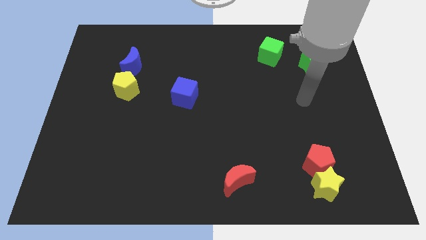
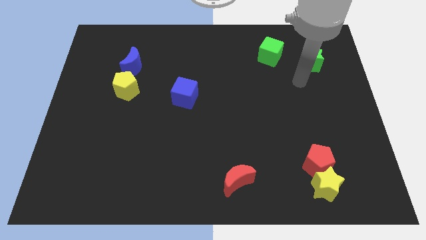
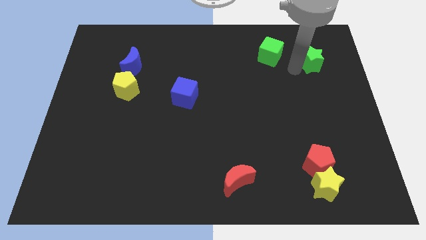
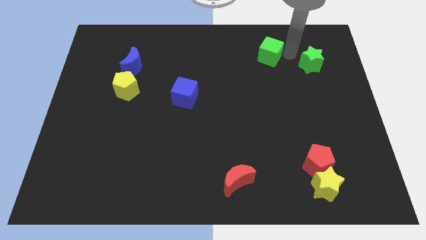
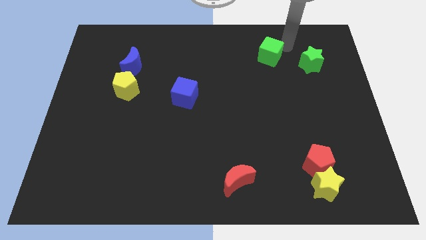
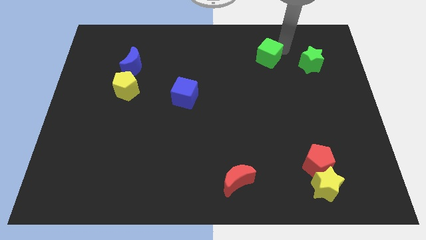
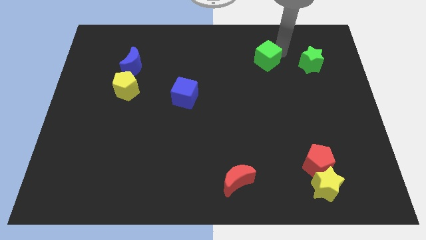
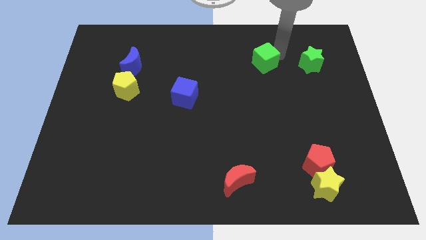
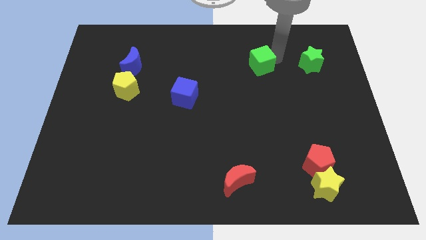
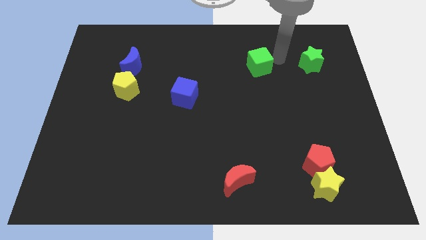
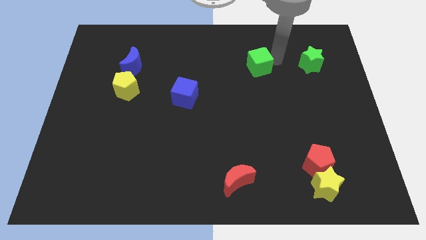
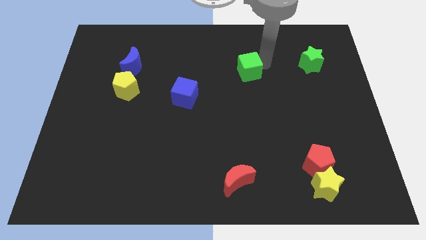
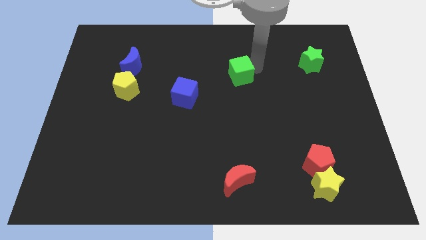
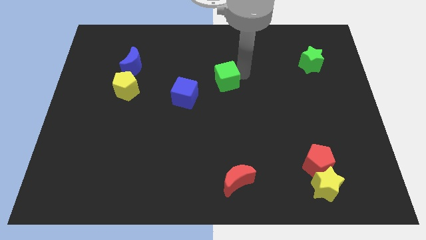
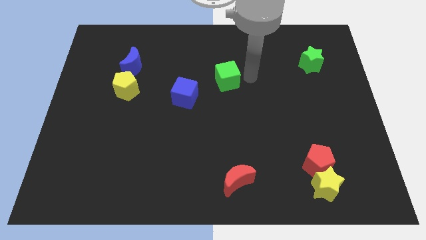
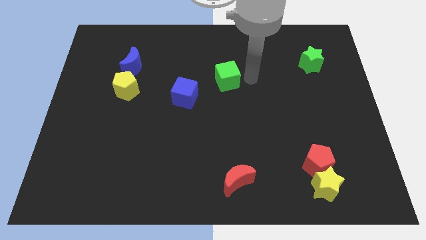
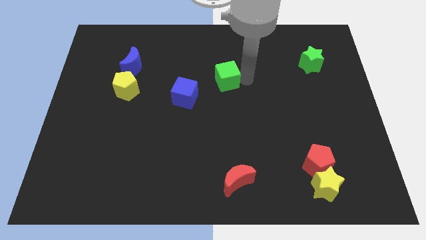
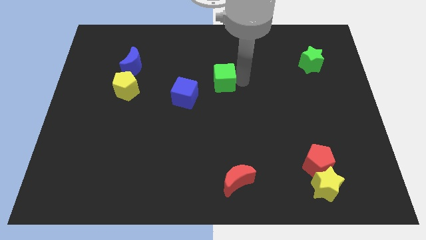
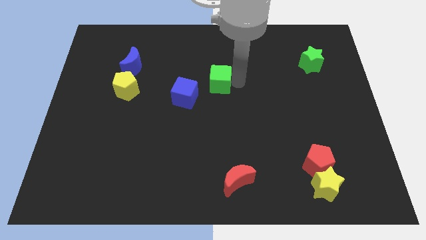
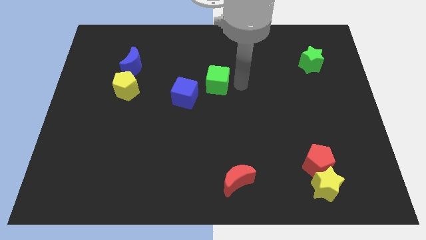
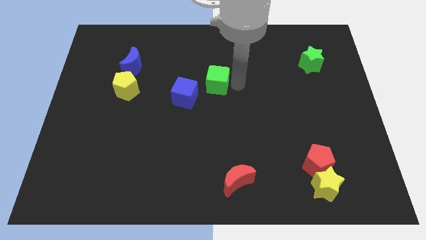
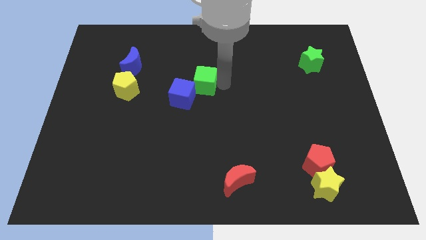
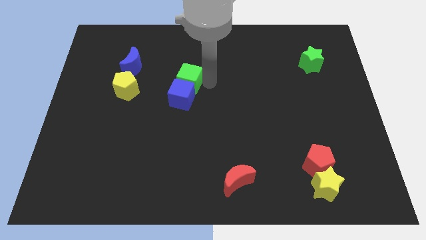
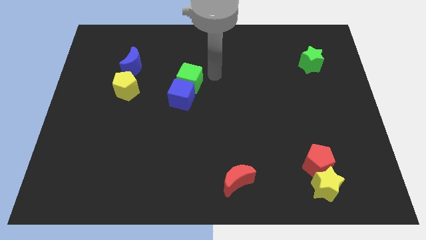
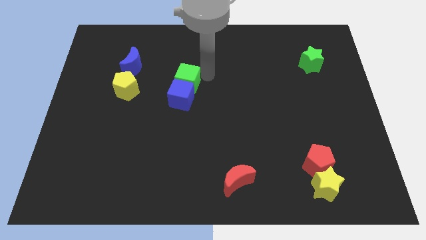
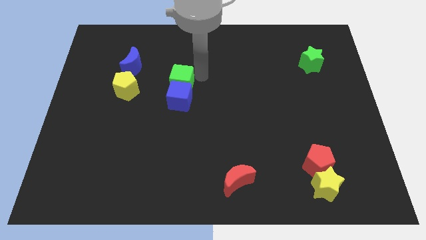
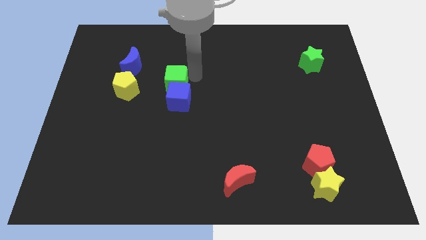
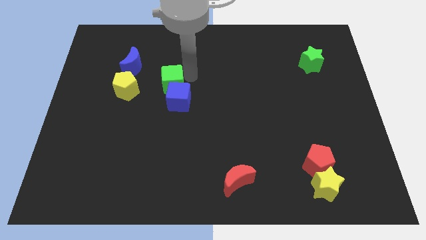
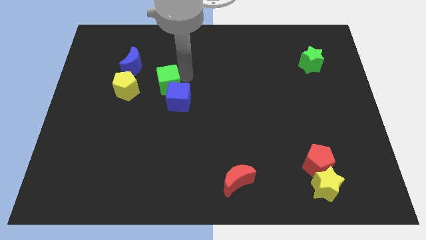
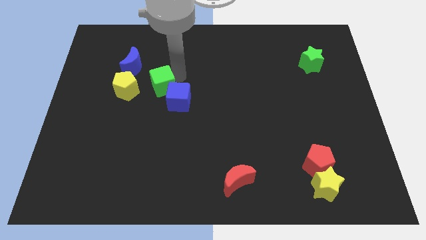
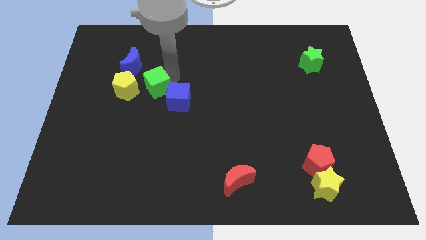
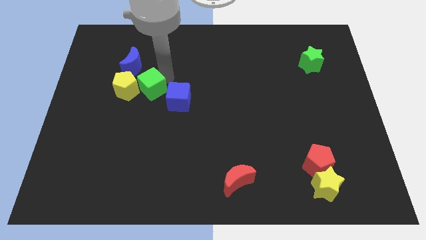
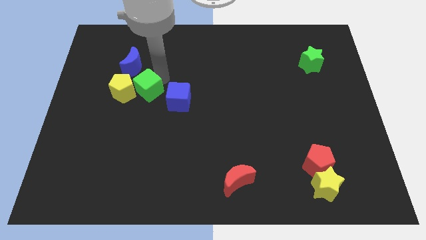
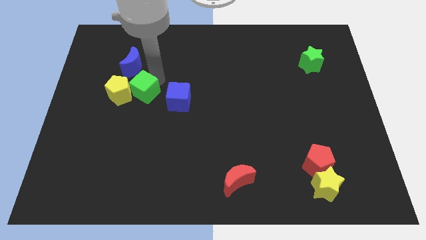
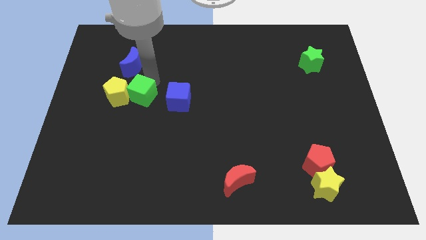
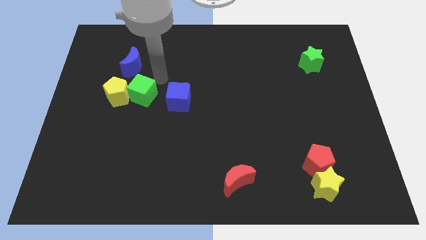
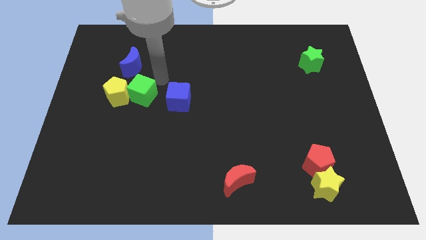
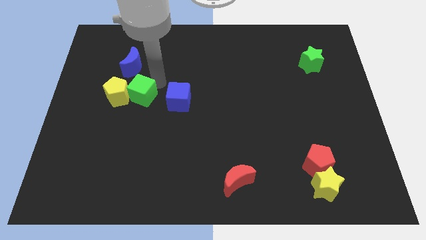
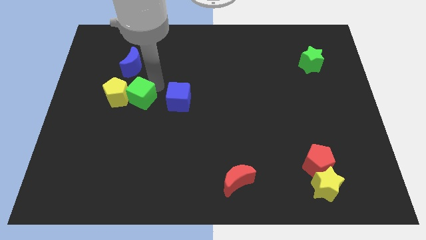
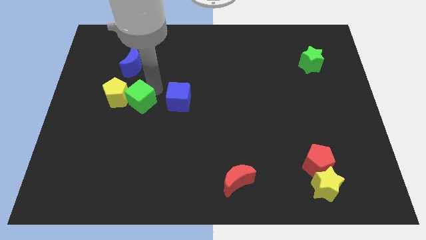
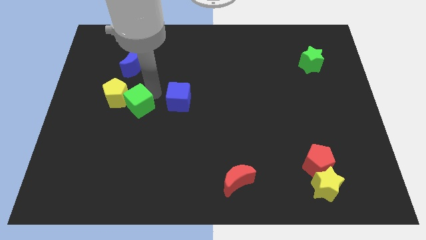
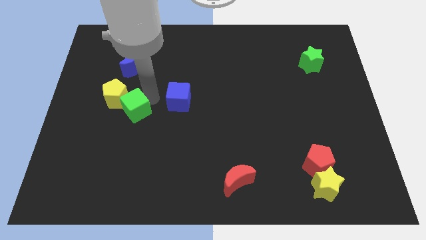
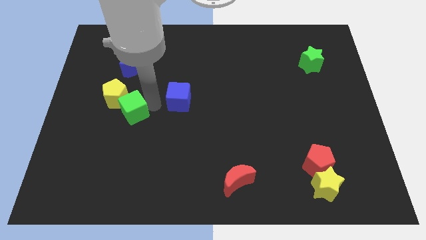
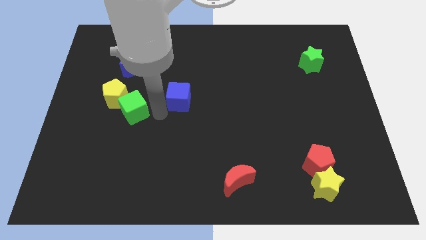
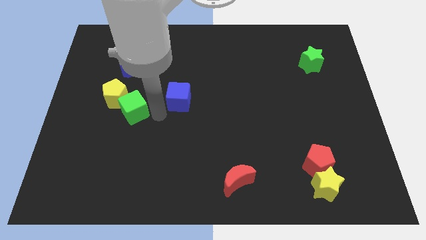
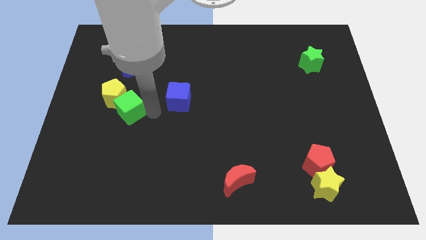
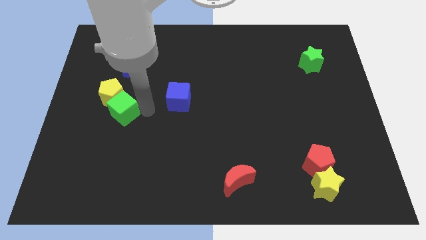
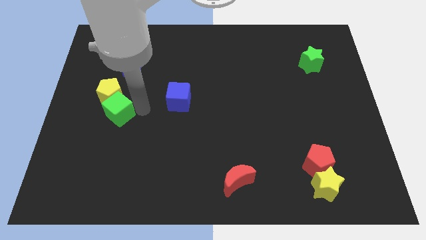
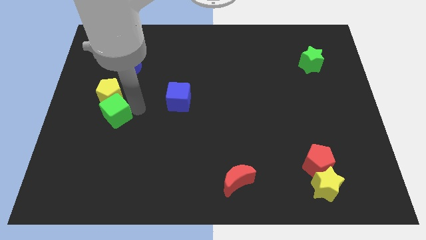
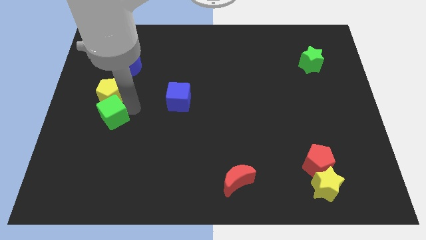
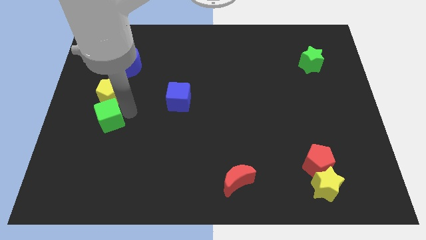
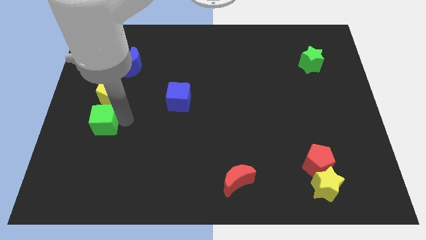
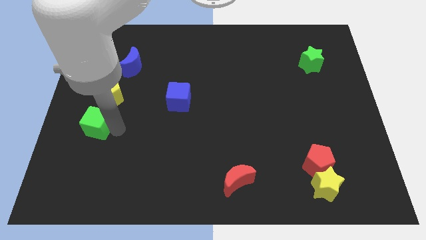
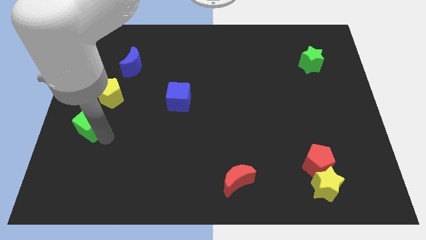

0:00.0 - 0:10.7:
move the green cube to the left side

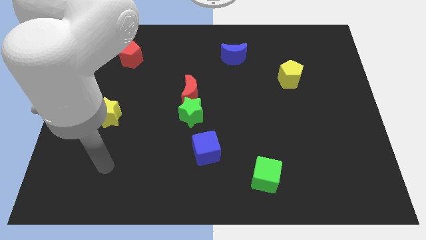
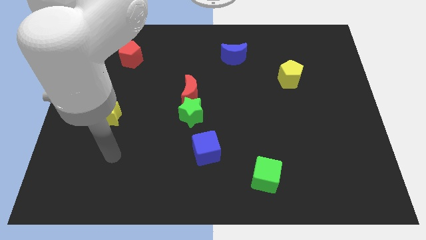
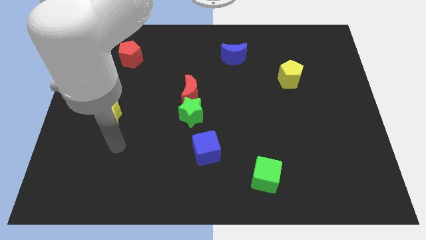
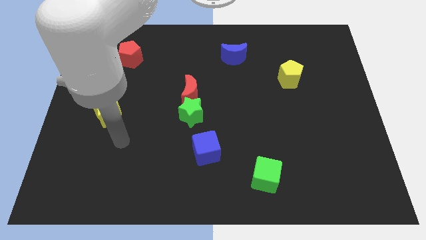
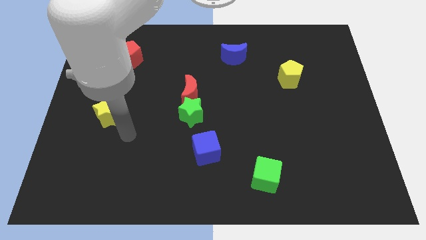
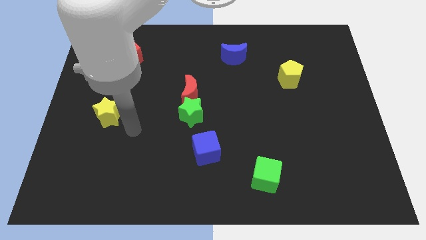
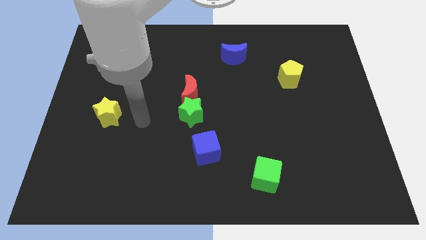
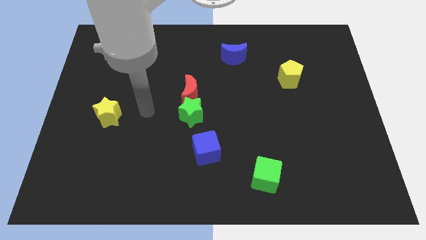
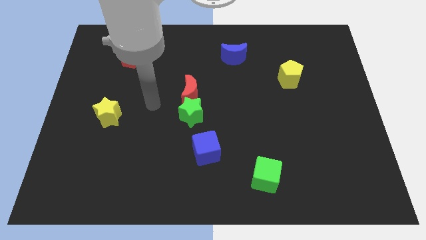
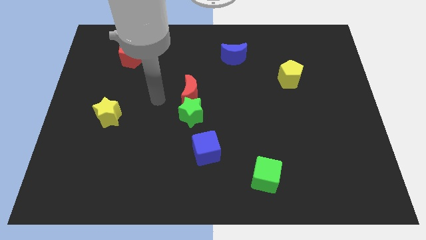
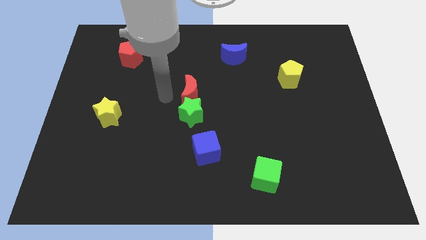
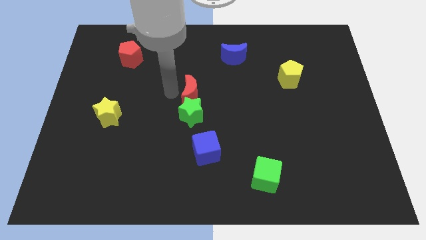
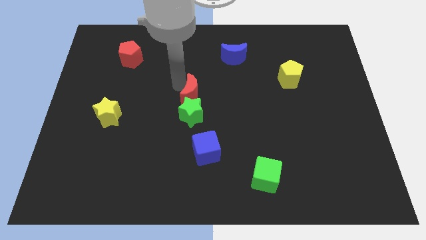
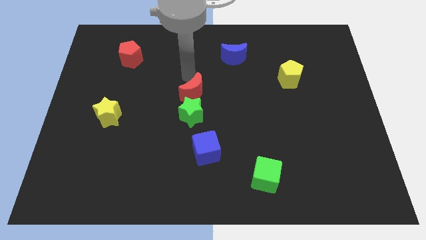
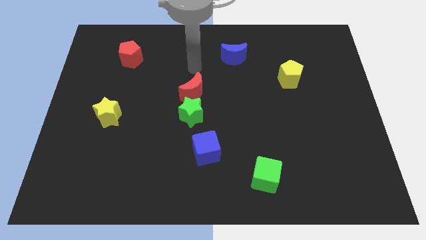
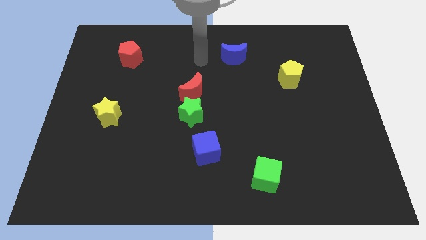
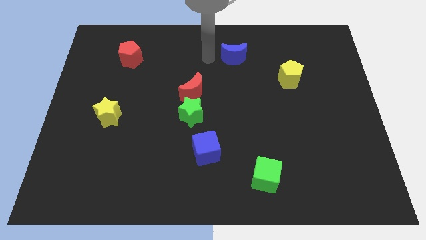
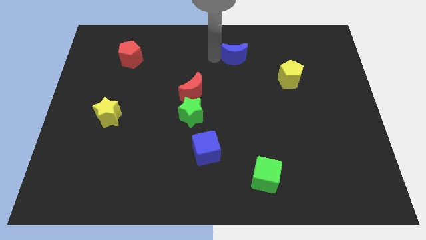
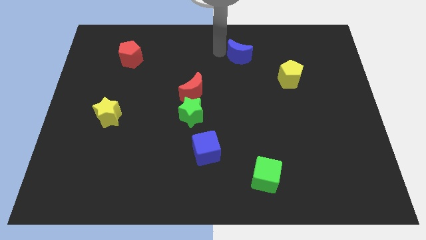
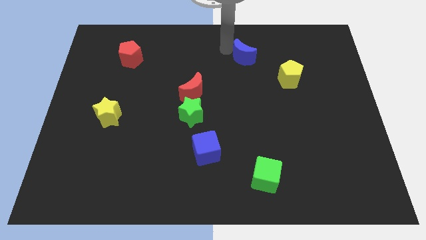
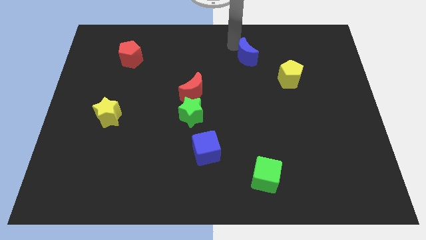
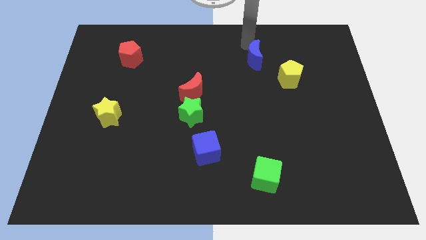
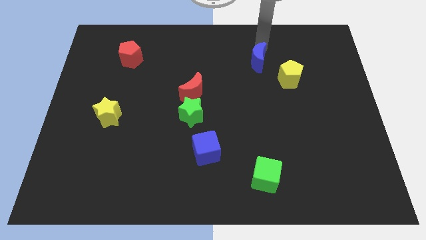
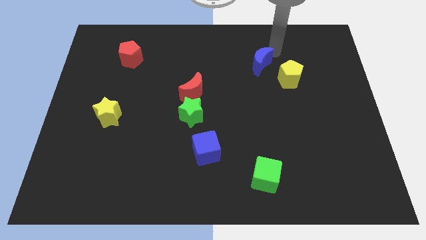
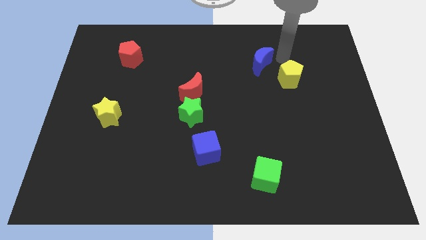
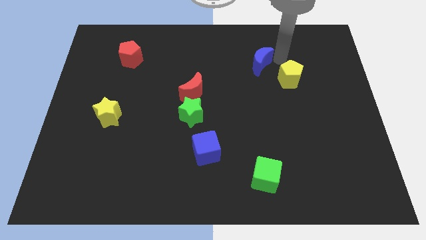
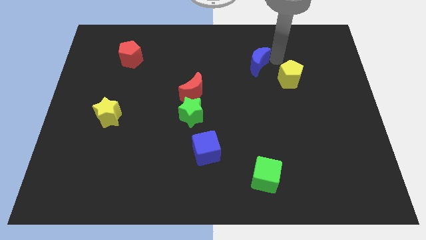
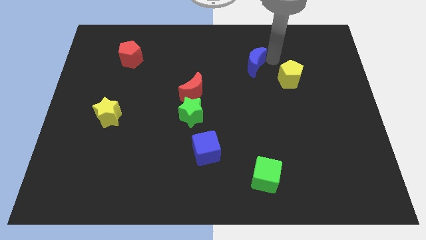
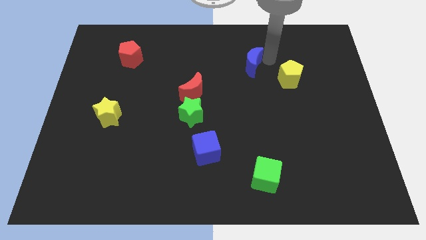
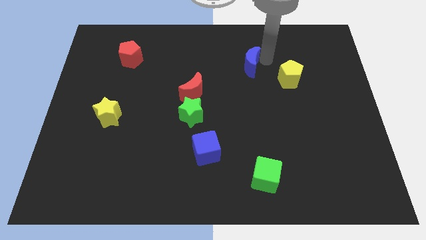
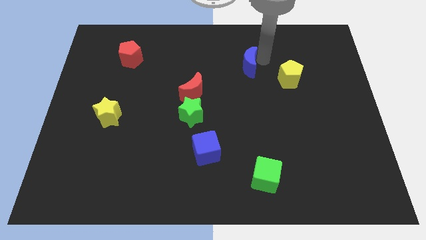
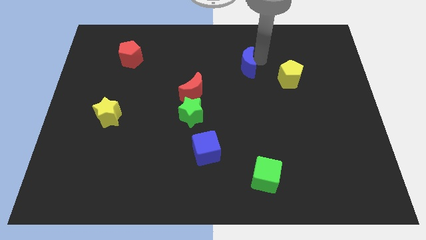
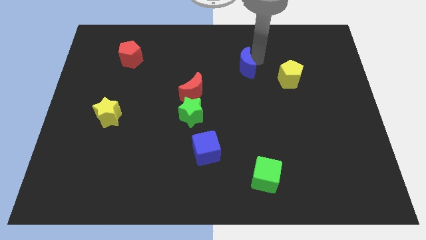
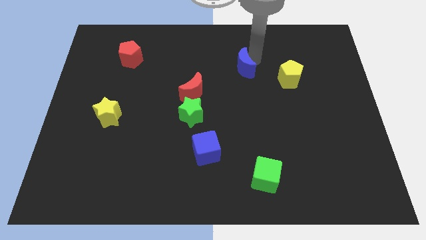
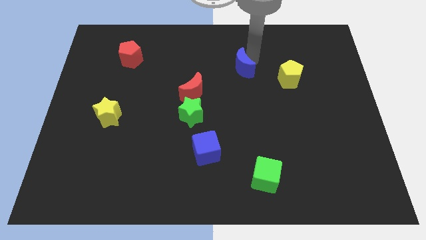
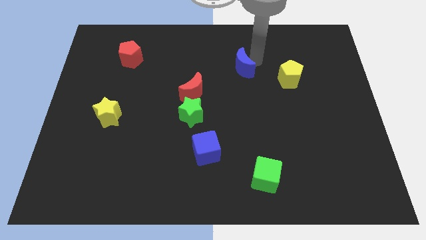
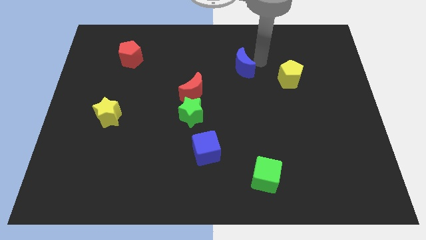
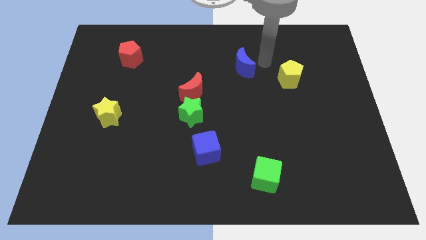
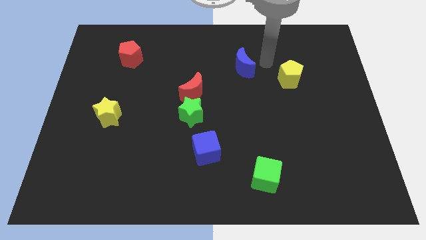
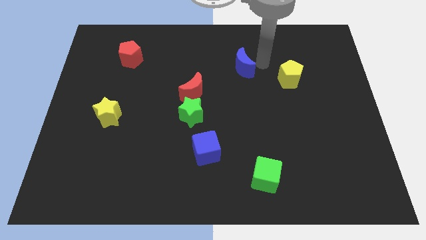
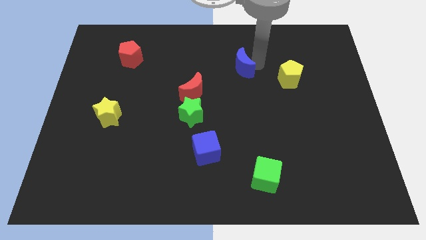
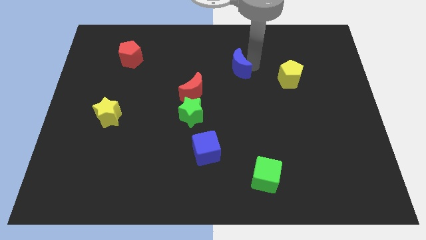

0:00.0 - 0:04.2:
slide the blue moon to the center
